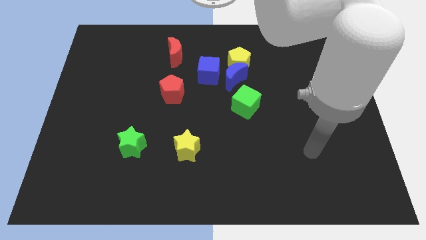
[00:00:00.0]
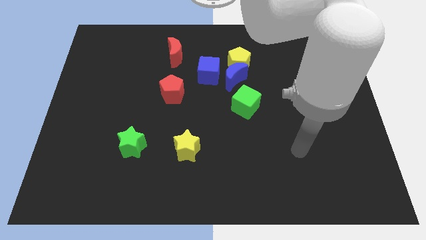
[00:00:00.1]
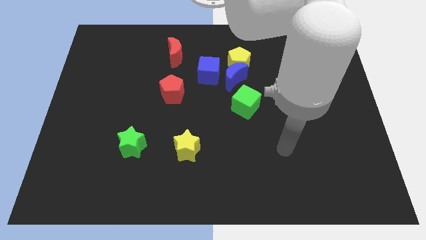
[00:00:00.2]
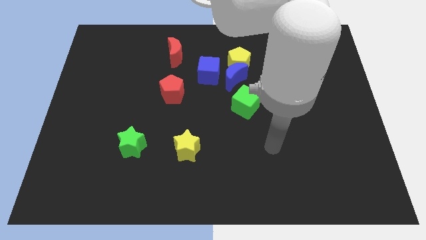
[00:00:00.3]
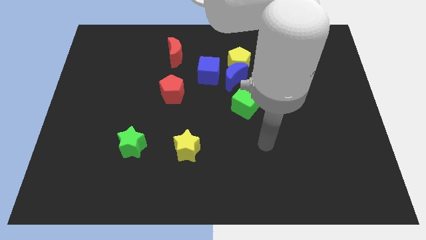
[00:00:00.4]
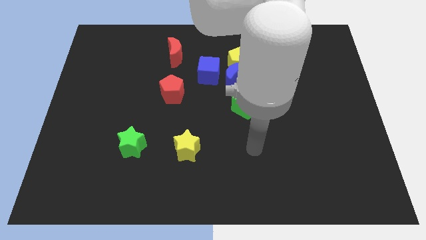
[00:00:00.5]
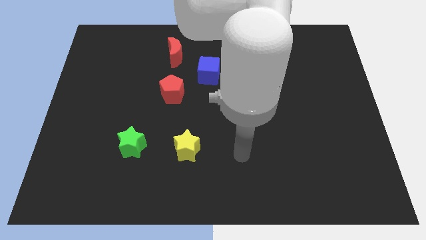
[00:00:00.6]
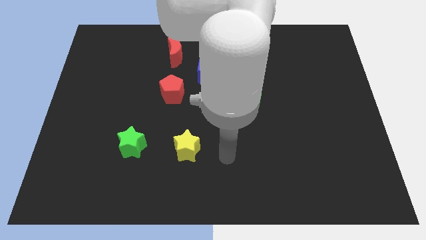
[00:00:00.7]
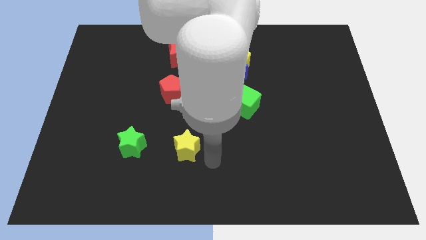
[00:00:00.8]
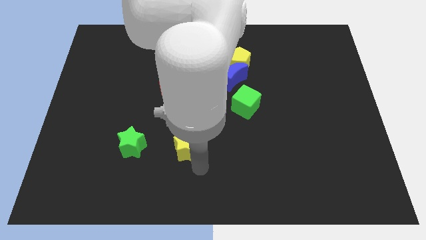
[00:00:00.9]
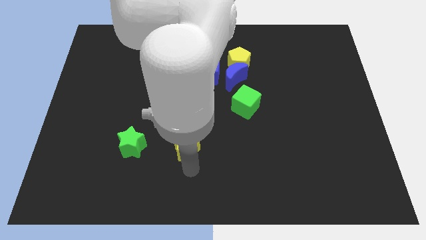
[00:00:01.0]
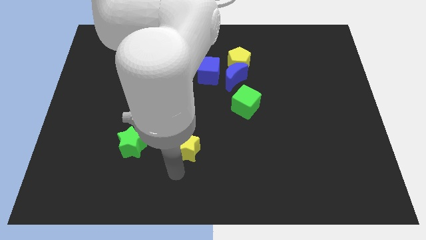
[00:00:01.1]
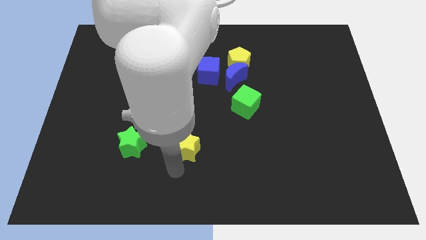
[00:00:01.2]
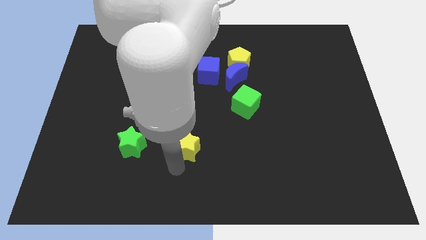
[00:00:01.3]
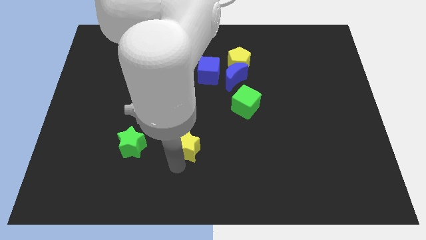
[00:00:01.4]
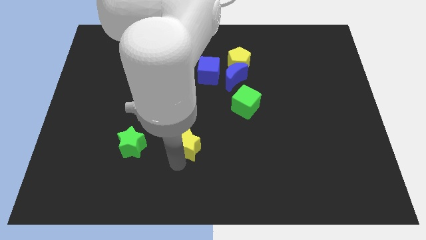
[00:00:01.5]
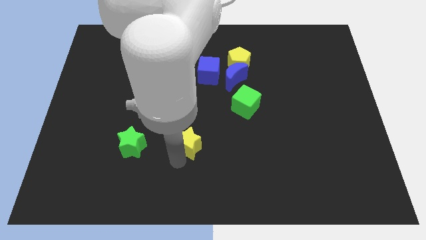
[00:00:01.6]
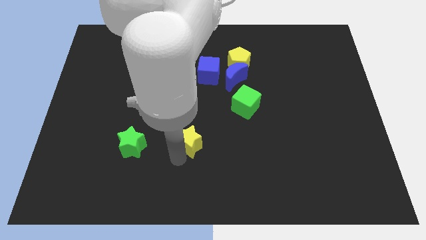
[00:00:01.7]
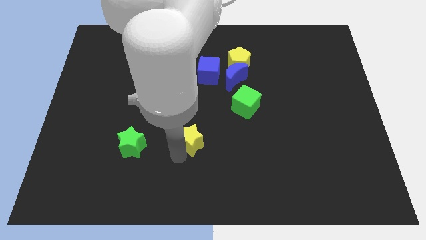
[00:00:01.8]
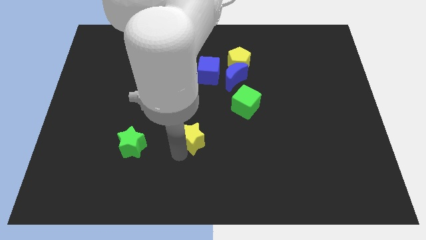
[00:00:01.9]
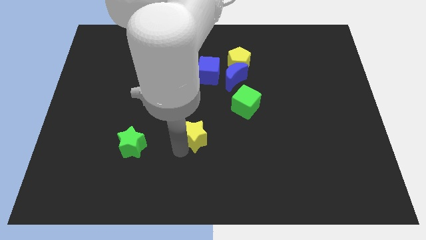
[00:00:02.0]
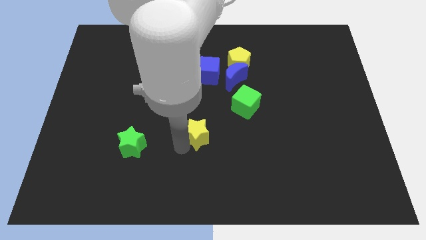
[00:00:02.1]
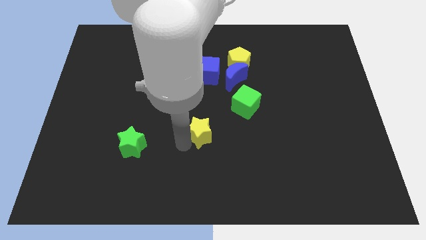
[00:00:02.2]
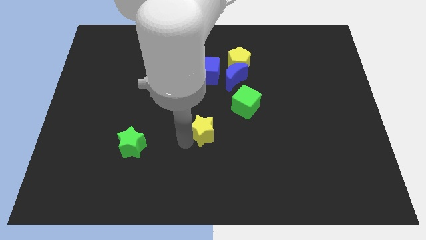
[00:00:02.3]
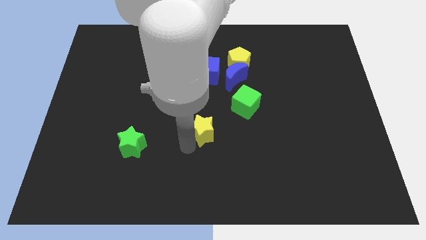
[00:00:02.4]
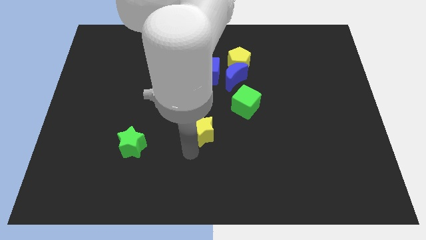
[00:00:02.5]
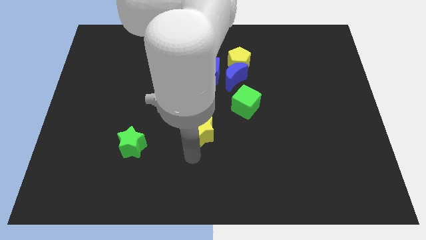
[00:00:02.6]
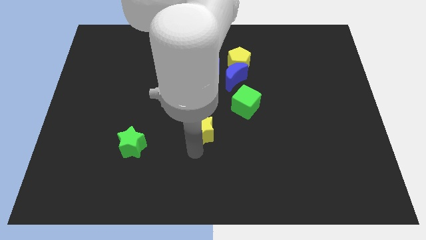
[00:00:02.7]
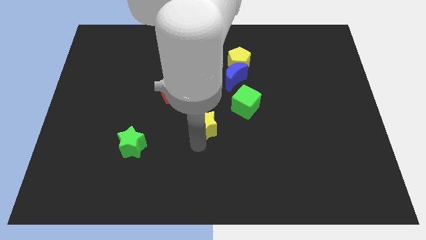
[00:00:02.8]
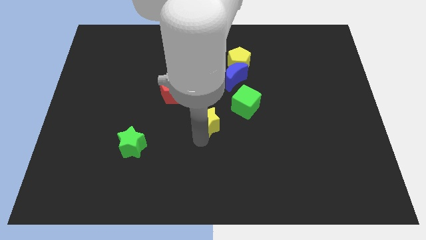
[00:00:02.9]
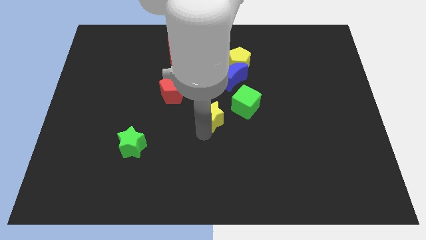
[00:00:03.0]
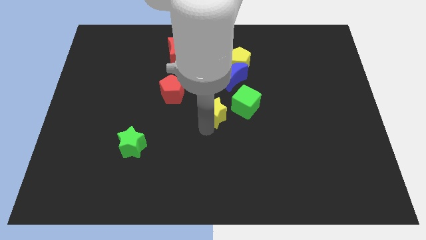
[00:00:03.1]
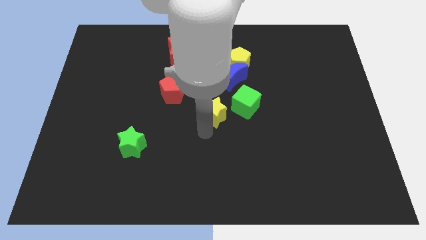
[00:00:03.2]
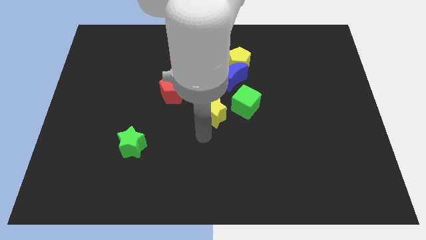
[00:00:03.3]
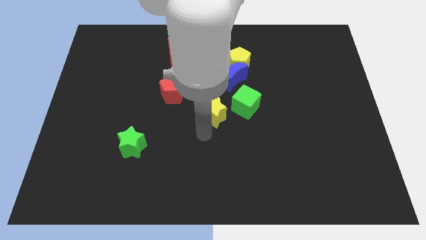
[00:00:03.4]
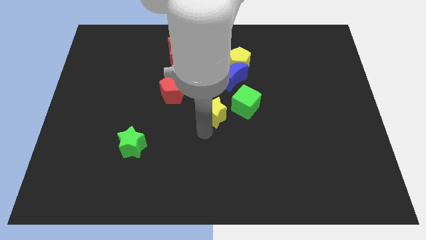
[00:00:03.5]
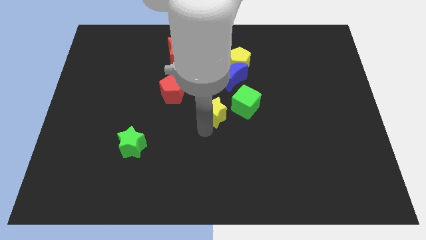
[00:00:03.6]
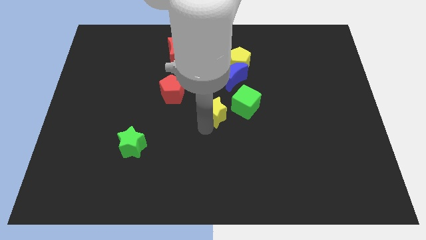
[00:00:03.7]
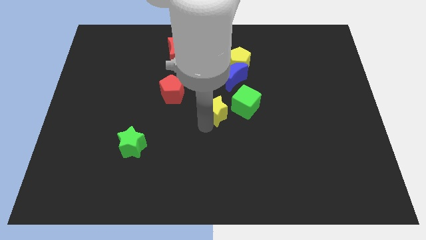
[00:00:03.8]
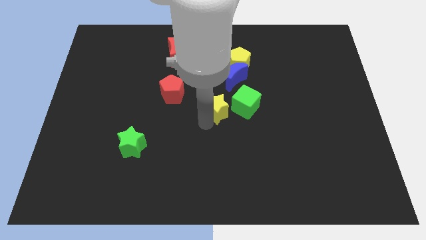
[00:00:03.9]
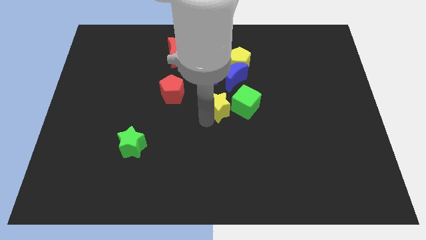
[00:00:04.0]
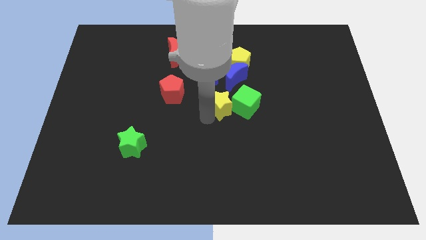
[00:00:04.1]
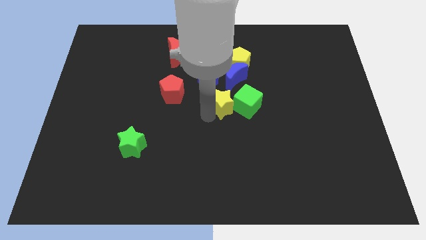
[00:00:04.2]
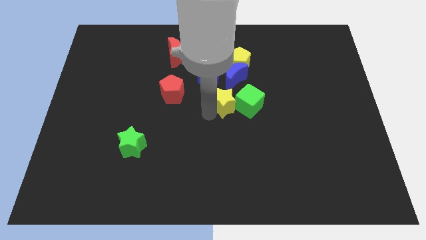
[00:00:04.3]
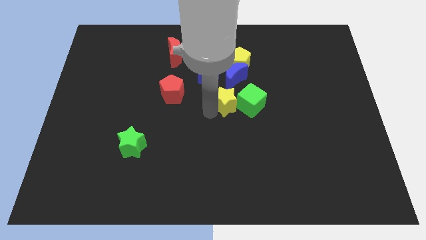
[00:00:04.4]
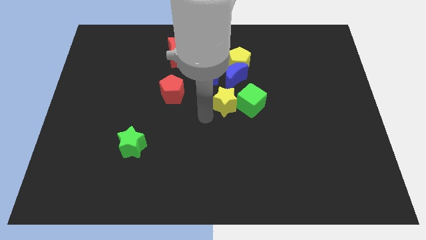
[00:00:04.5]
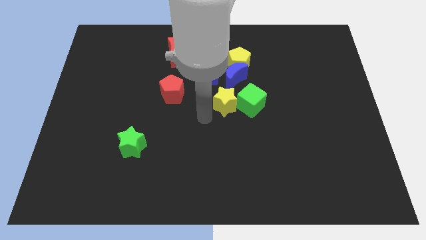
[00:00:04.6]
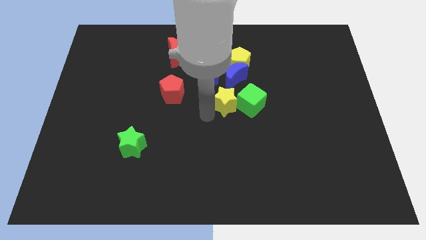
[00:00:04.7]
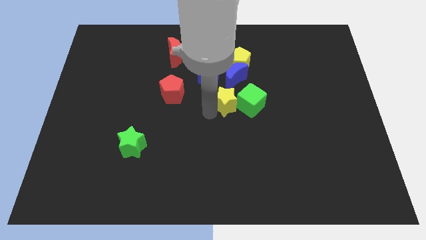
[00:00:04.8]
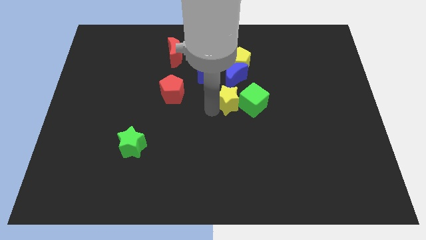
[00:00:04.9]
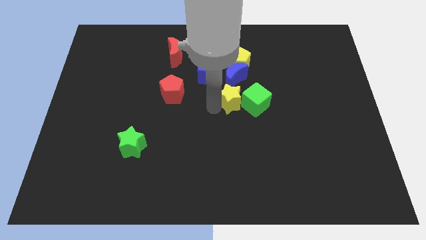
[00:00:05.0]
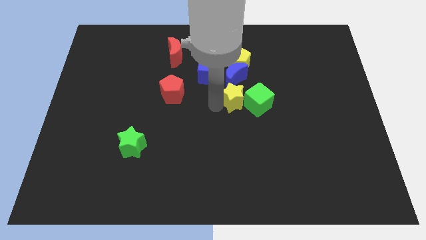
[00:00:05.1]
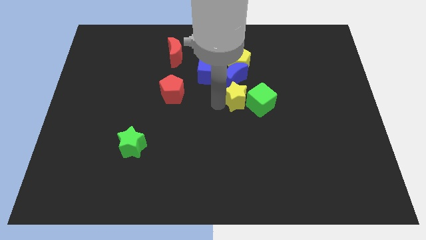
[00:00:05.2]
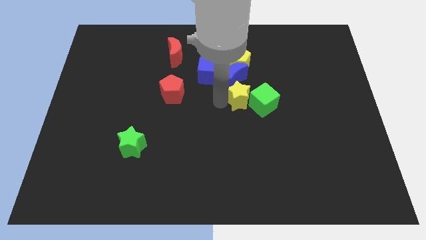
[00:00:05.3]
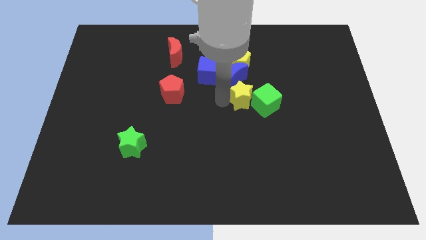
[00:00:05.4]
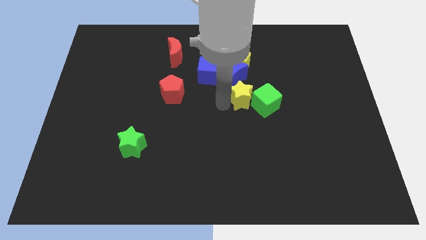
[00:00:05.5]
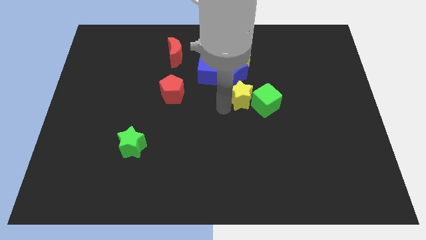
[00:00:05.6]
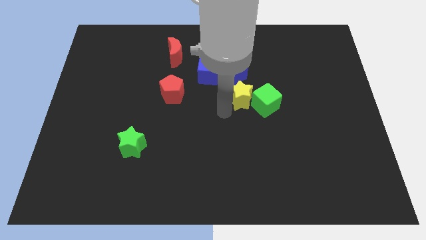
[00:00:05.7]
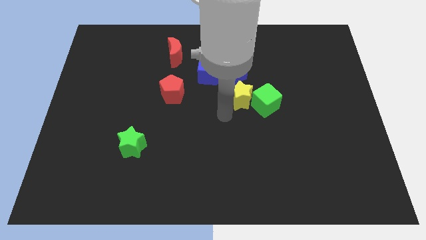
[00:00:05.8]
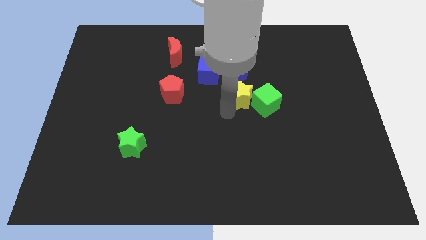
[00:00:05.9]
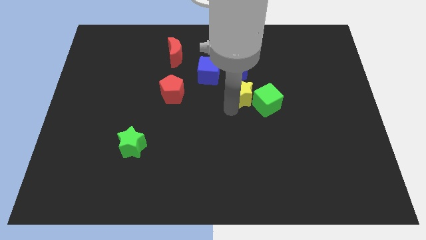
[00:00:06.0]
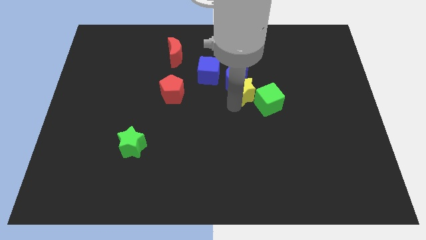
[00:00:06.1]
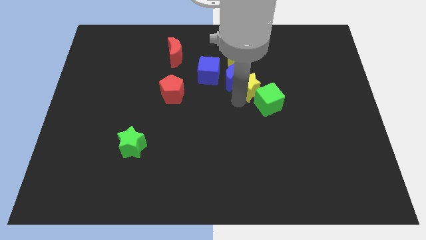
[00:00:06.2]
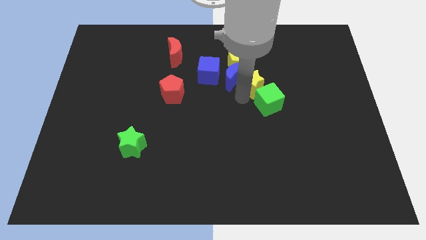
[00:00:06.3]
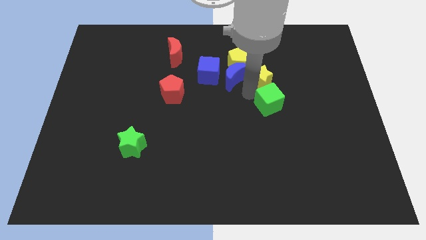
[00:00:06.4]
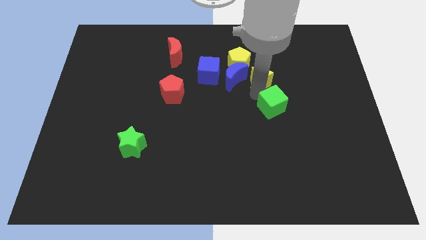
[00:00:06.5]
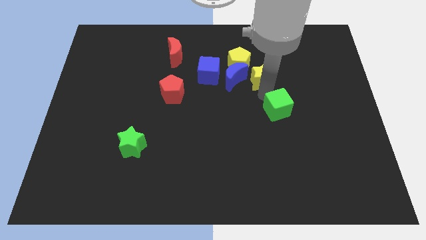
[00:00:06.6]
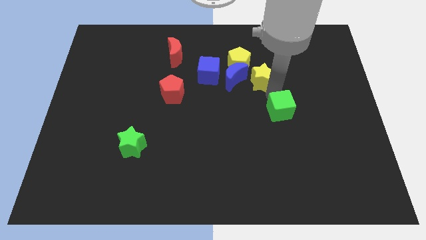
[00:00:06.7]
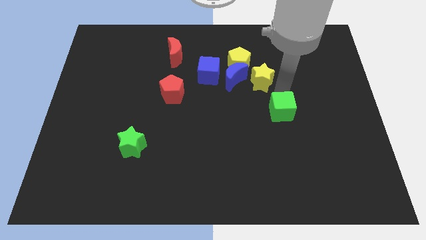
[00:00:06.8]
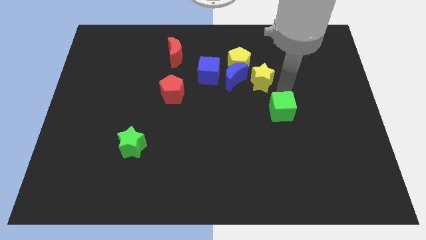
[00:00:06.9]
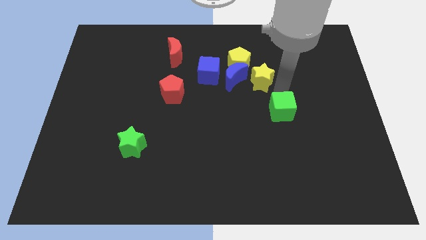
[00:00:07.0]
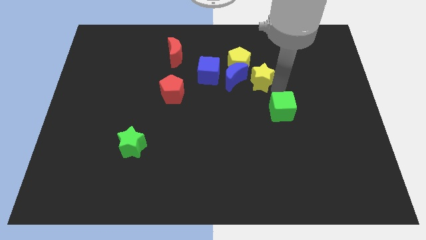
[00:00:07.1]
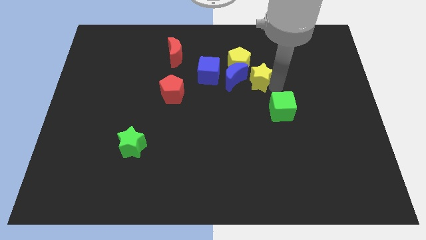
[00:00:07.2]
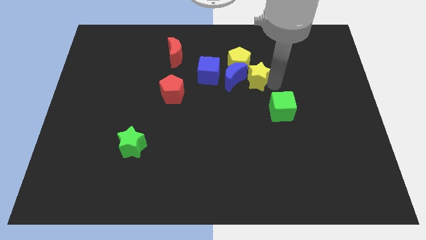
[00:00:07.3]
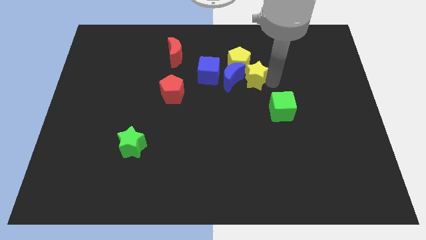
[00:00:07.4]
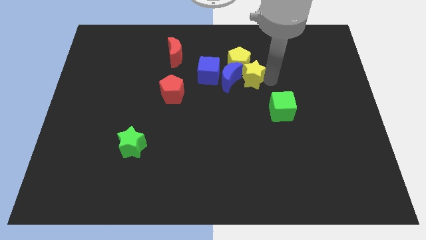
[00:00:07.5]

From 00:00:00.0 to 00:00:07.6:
move the yellow star close to the yellow pentagon
